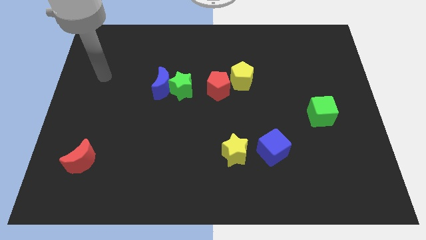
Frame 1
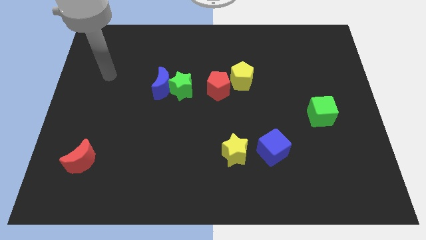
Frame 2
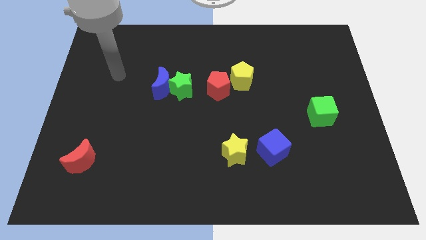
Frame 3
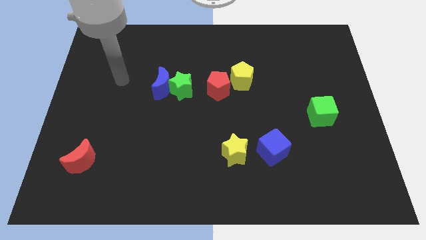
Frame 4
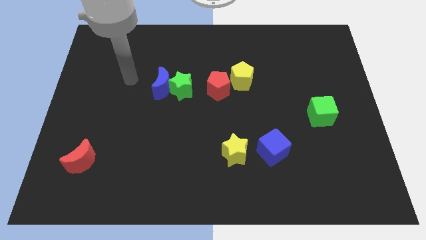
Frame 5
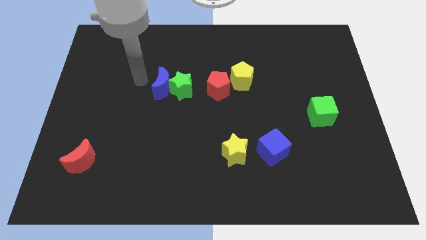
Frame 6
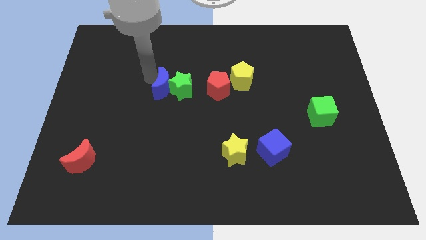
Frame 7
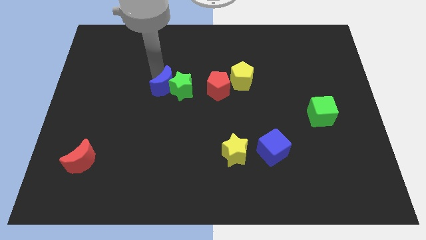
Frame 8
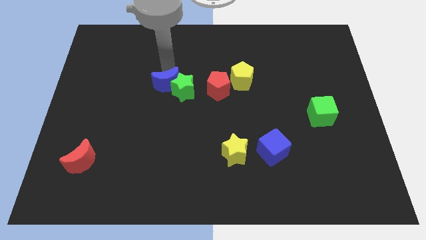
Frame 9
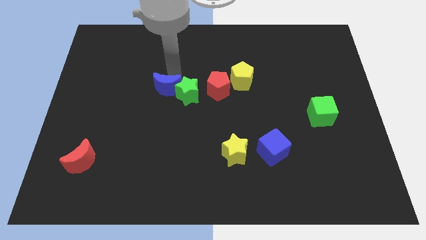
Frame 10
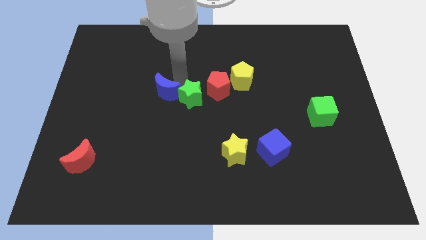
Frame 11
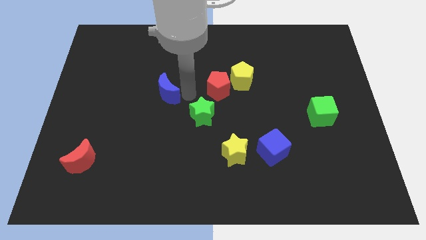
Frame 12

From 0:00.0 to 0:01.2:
move the blue moon away from the green star

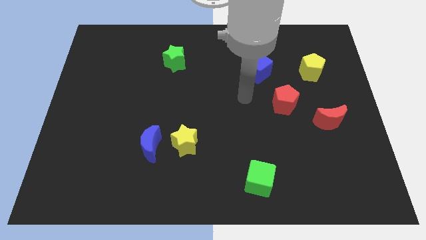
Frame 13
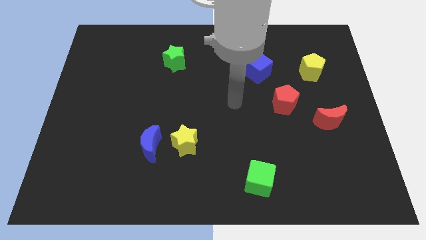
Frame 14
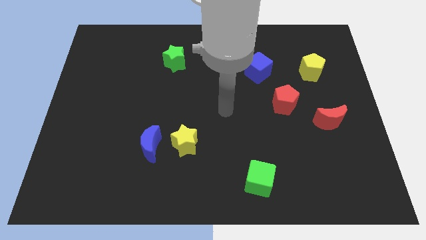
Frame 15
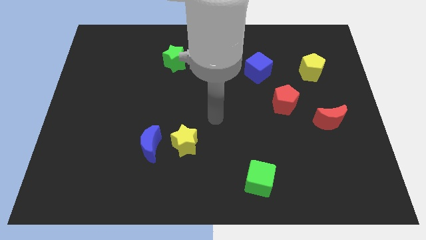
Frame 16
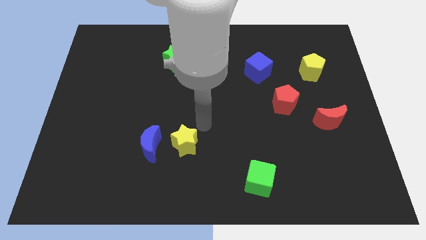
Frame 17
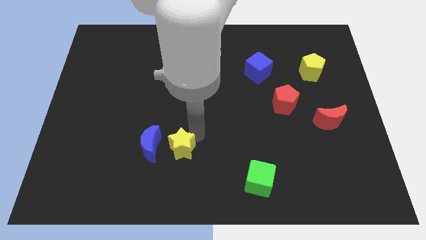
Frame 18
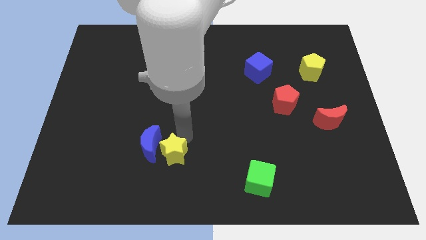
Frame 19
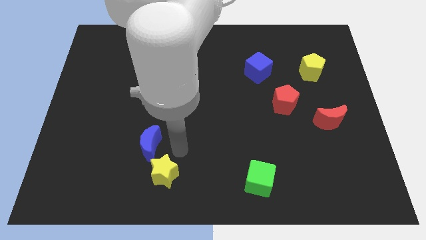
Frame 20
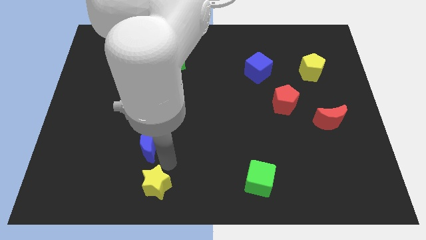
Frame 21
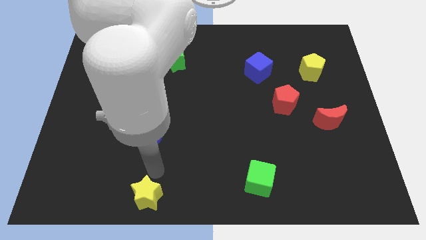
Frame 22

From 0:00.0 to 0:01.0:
separate the blue moon from the yellow star

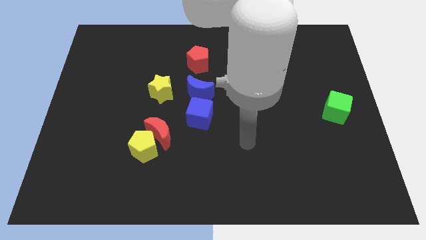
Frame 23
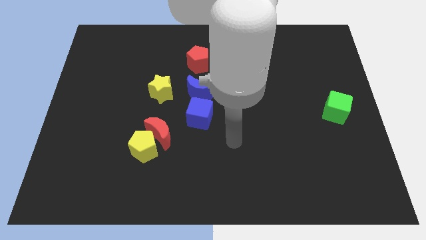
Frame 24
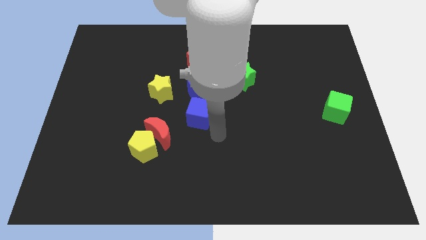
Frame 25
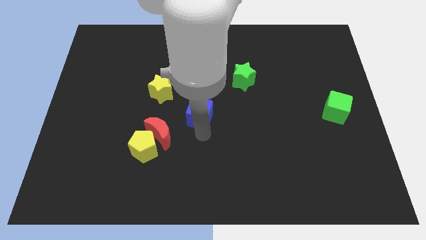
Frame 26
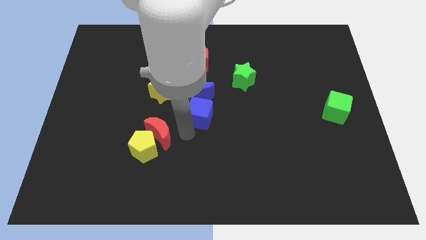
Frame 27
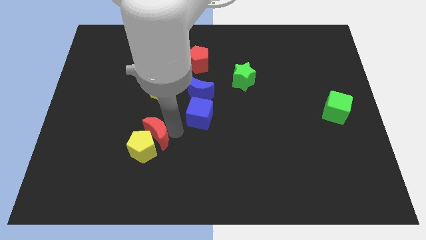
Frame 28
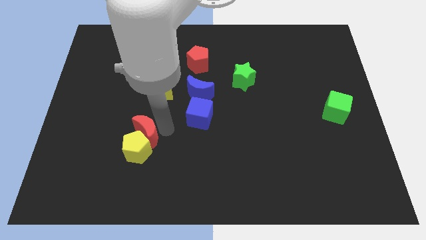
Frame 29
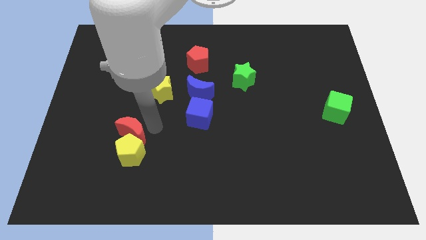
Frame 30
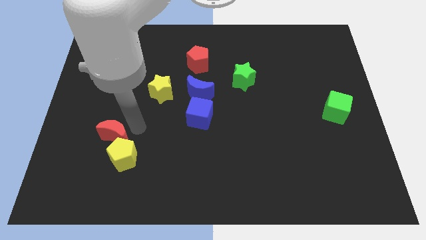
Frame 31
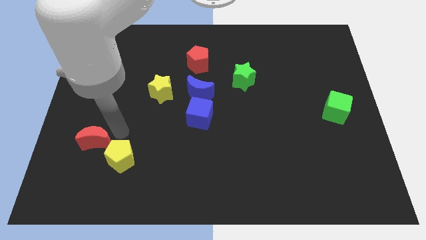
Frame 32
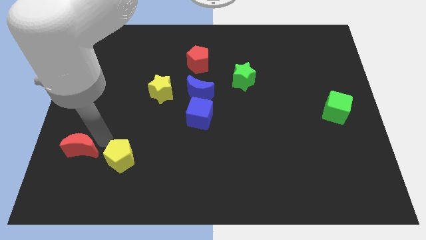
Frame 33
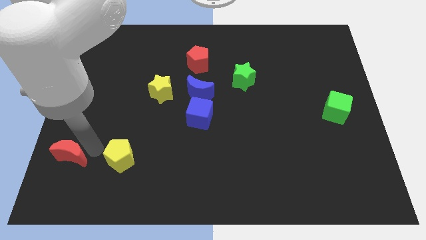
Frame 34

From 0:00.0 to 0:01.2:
move the yellow pentagon away from the red moon

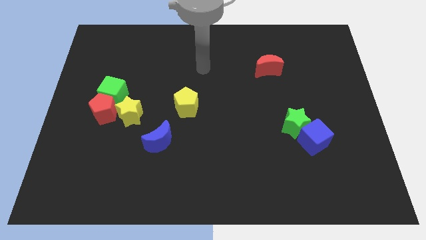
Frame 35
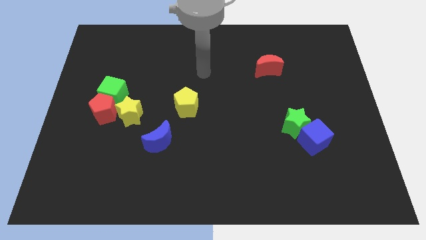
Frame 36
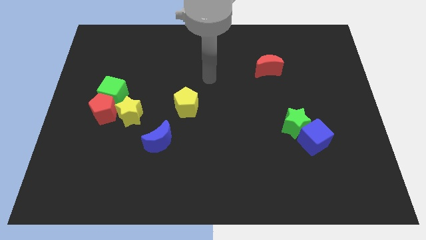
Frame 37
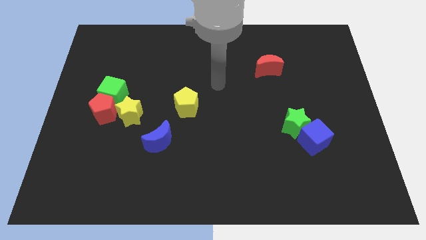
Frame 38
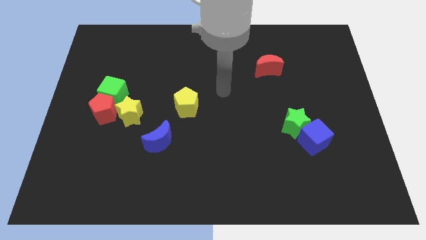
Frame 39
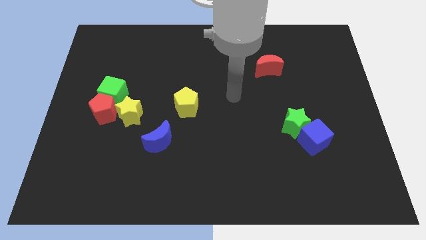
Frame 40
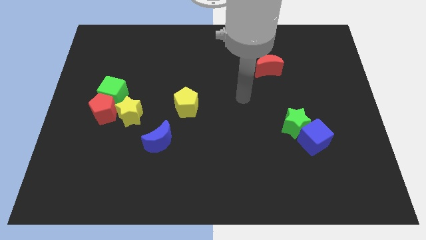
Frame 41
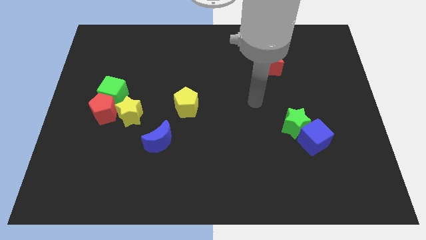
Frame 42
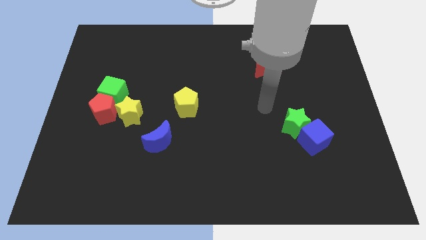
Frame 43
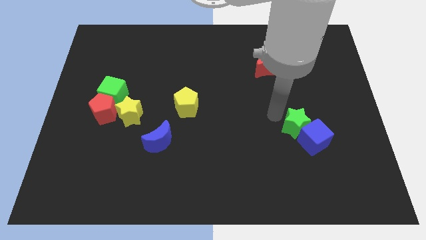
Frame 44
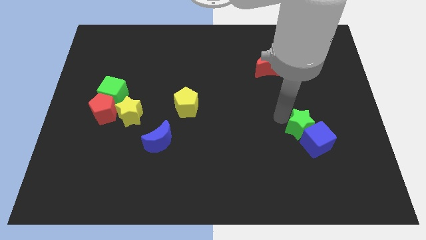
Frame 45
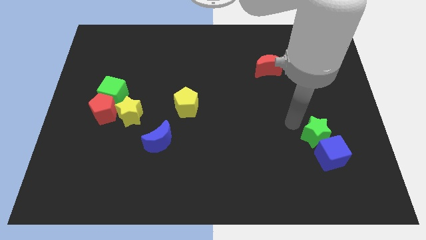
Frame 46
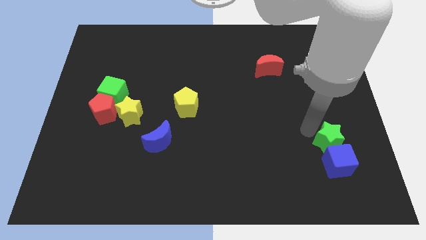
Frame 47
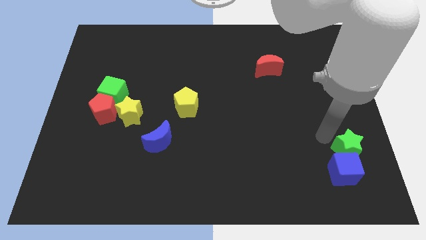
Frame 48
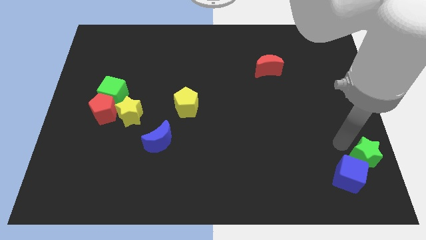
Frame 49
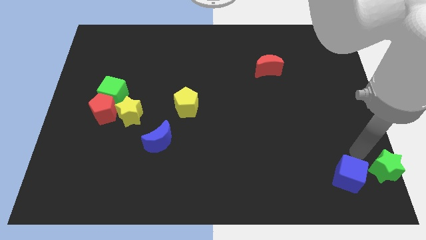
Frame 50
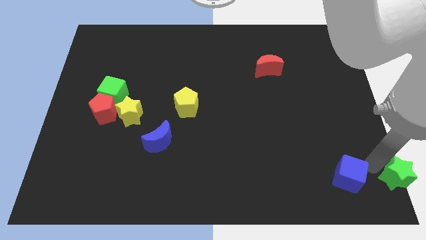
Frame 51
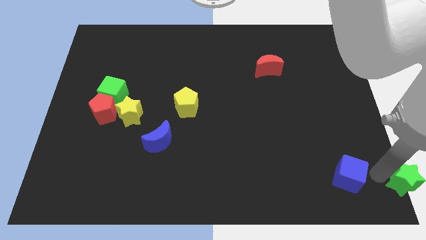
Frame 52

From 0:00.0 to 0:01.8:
pull the blue cube apart from the green star

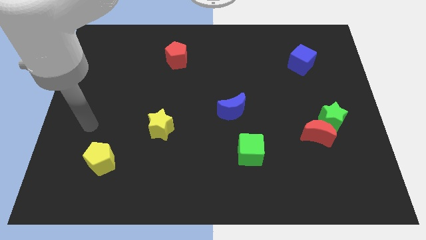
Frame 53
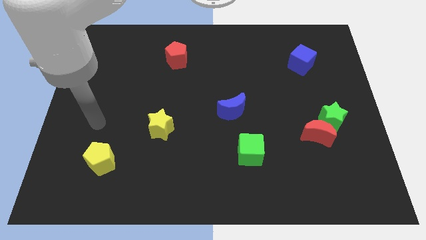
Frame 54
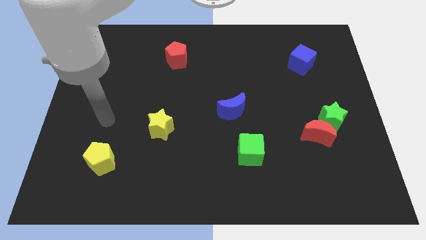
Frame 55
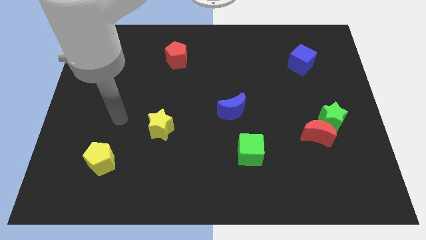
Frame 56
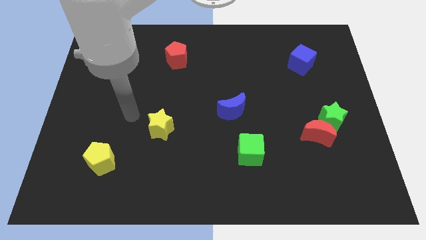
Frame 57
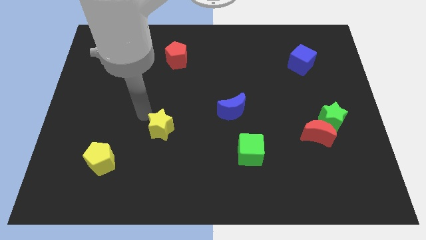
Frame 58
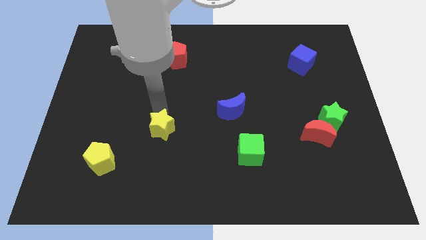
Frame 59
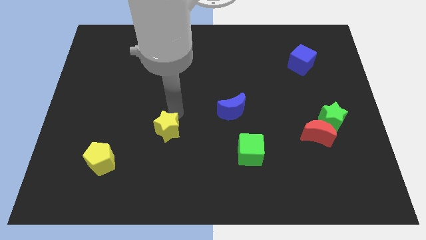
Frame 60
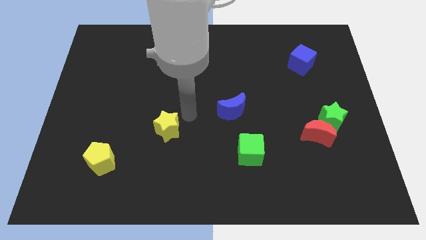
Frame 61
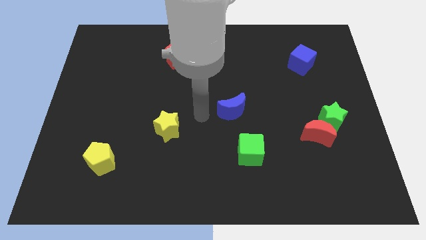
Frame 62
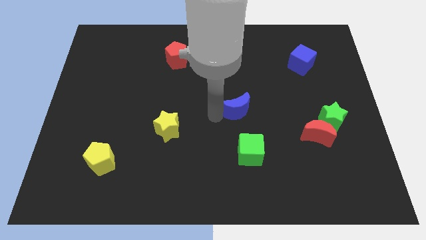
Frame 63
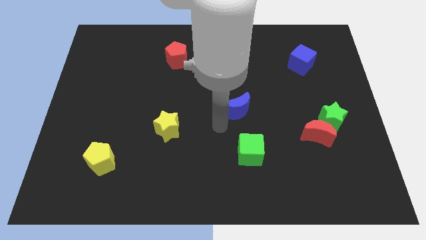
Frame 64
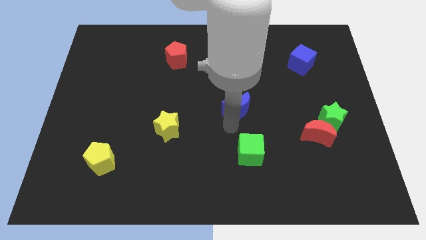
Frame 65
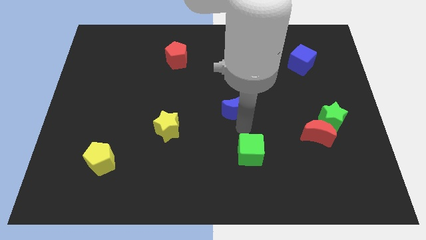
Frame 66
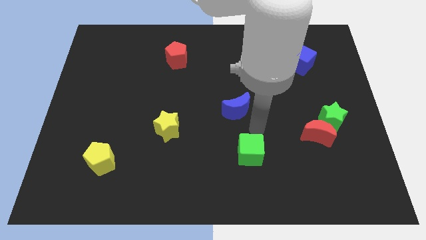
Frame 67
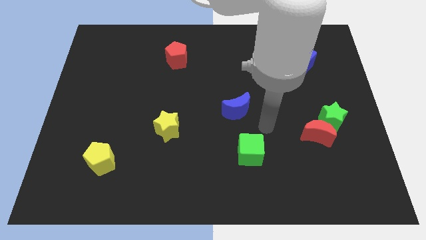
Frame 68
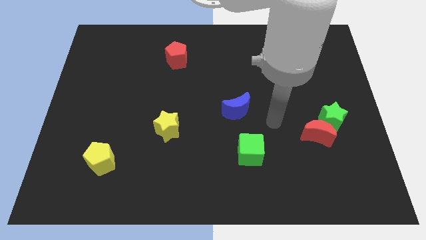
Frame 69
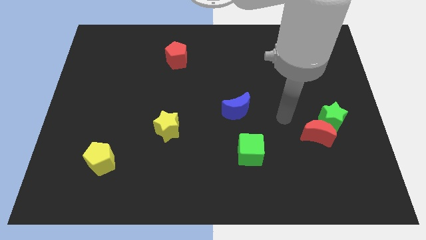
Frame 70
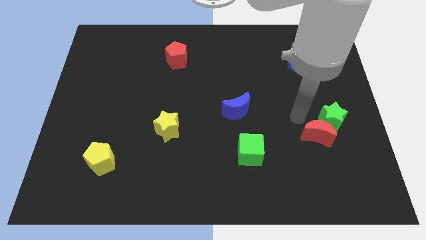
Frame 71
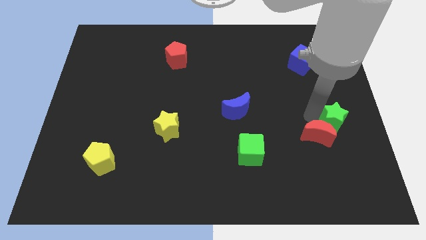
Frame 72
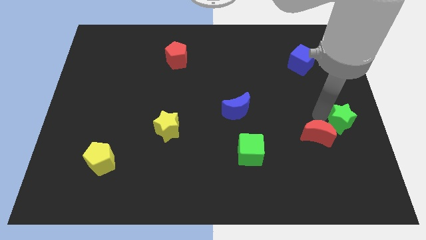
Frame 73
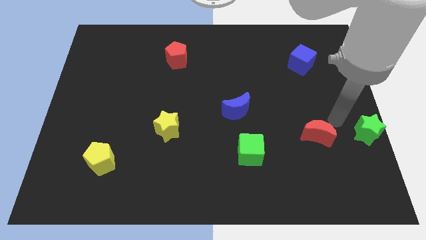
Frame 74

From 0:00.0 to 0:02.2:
separate the red moon from the green star

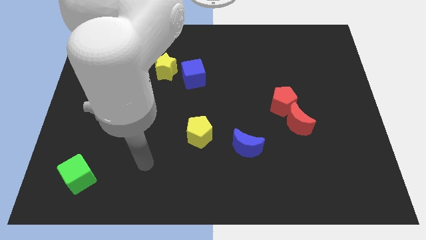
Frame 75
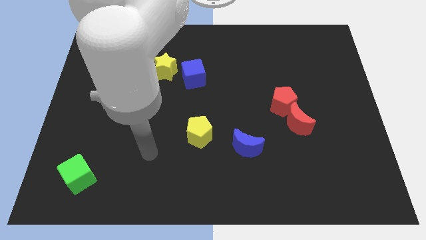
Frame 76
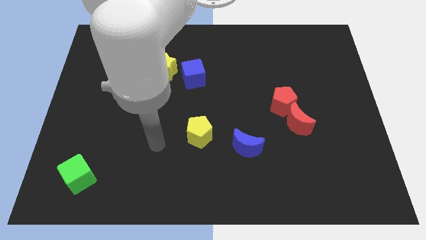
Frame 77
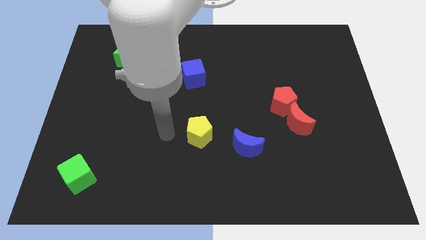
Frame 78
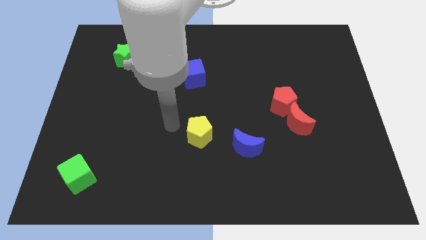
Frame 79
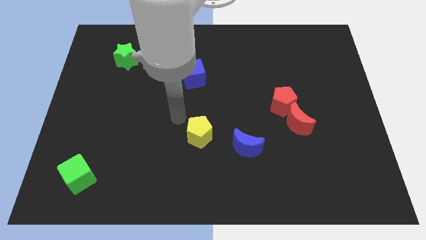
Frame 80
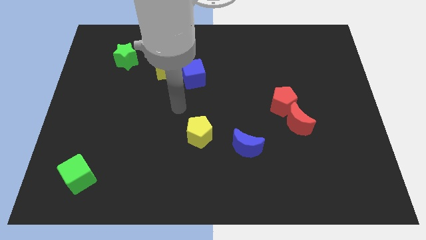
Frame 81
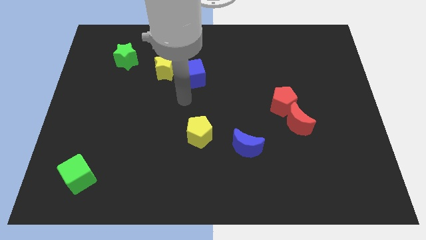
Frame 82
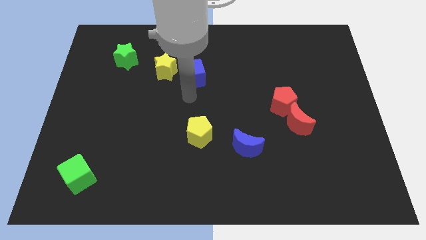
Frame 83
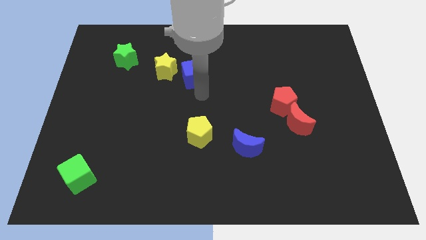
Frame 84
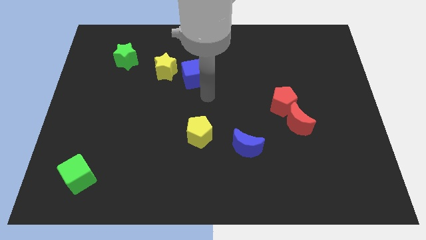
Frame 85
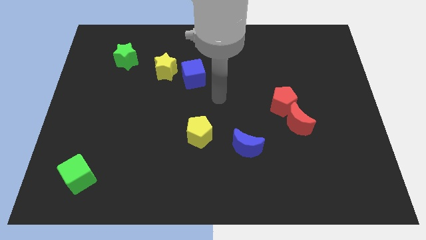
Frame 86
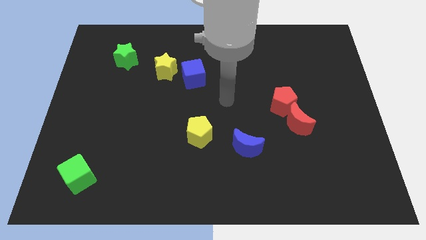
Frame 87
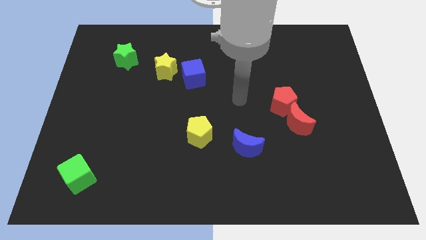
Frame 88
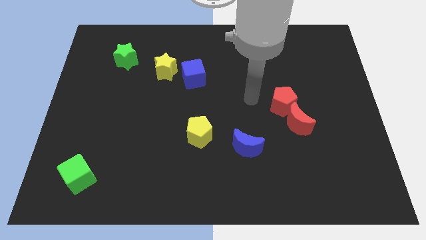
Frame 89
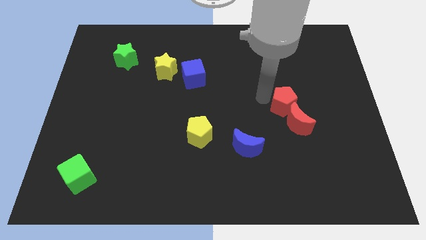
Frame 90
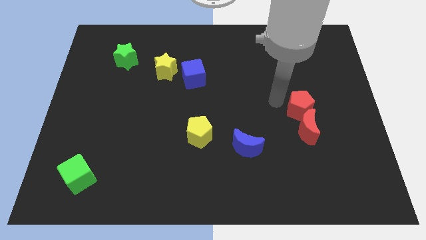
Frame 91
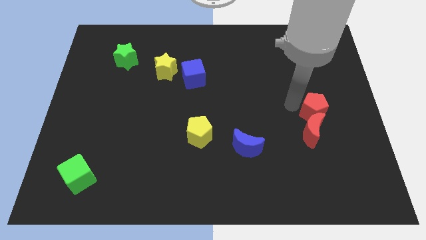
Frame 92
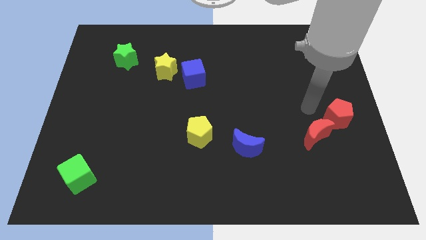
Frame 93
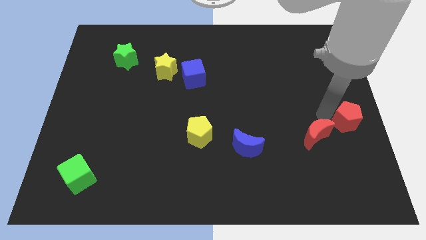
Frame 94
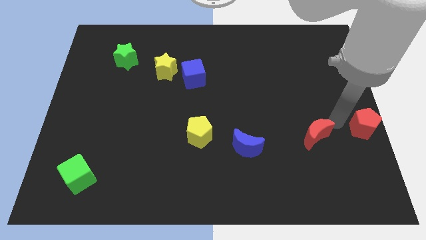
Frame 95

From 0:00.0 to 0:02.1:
pull the red moon apart from the red pentagon
